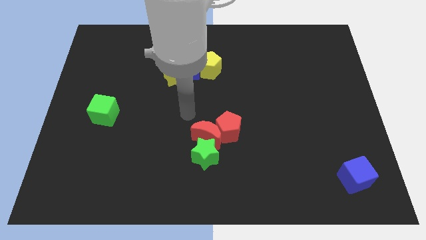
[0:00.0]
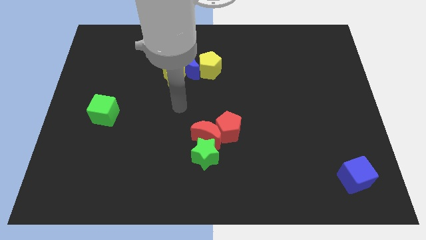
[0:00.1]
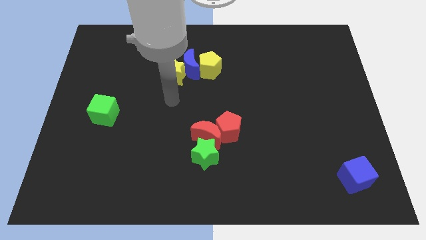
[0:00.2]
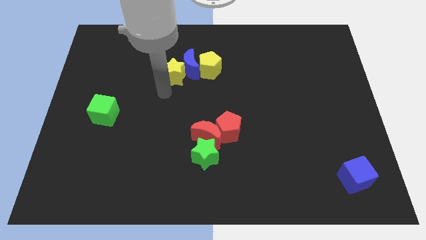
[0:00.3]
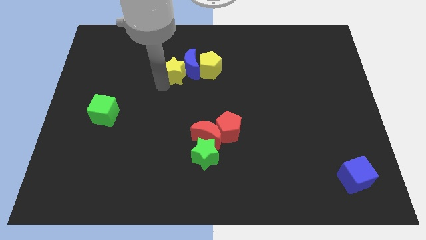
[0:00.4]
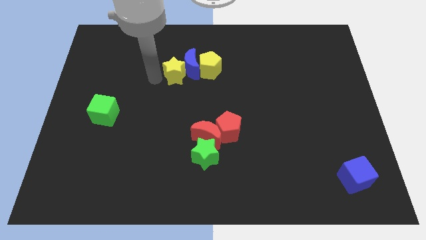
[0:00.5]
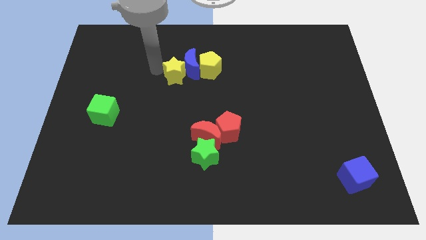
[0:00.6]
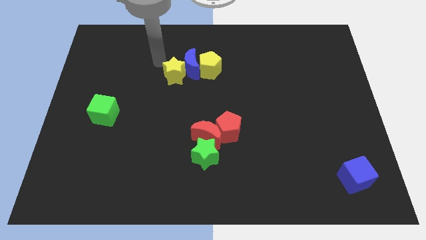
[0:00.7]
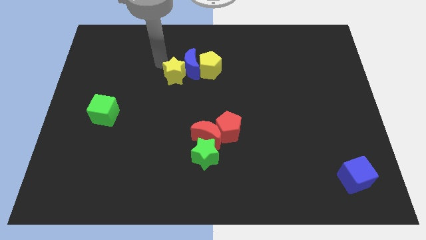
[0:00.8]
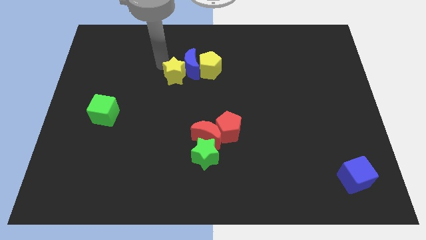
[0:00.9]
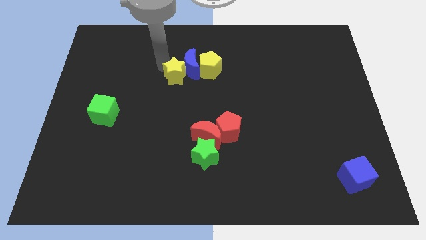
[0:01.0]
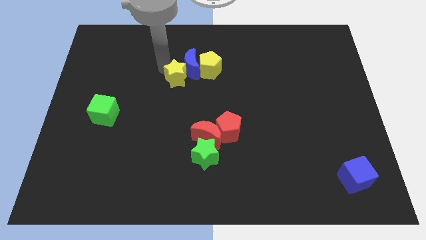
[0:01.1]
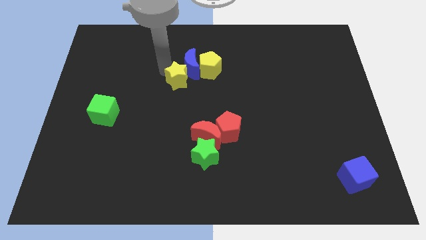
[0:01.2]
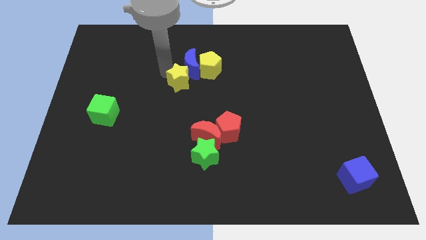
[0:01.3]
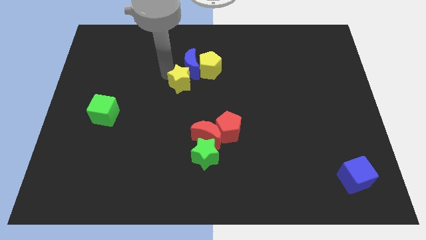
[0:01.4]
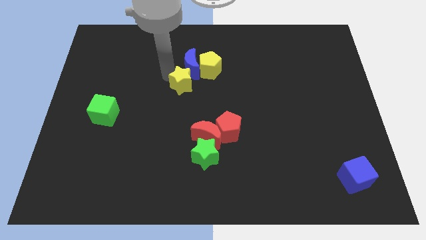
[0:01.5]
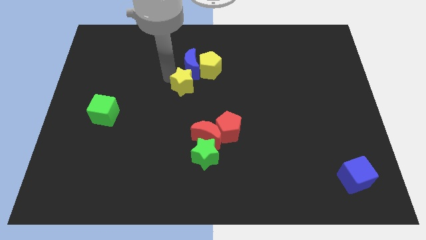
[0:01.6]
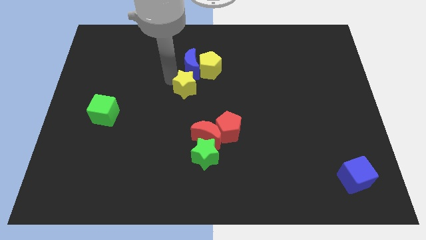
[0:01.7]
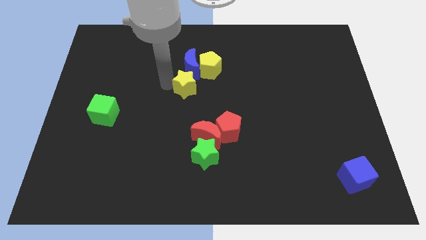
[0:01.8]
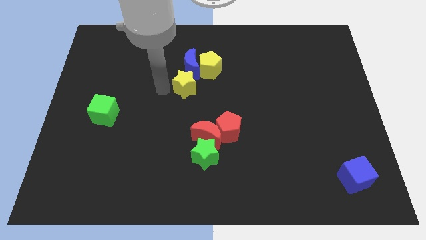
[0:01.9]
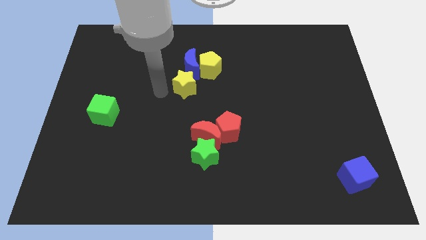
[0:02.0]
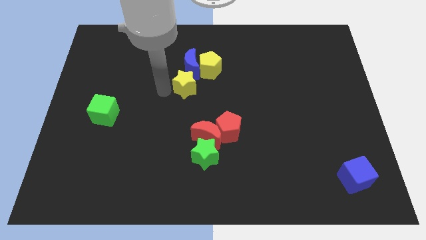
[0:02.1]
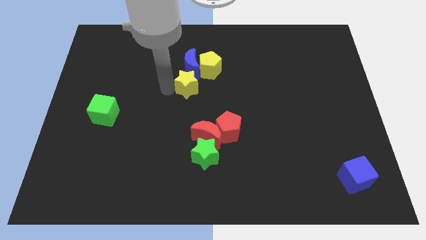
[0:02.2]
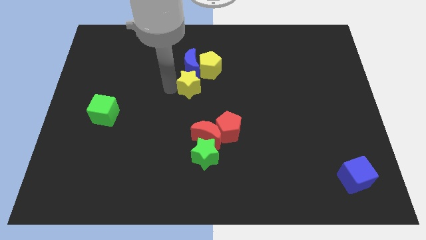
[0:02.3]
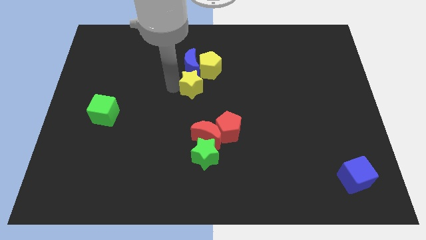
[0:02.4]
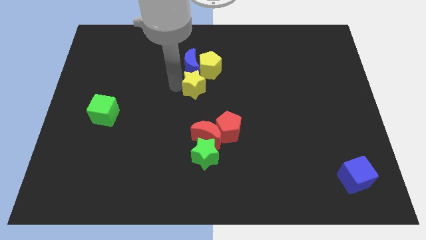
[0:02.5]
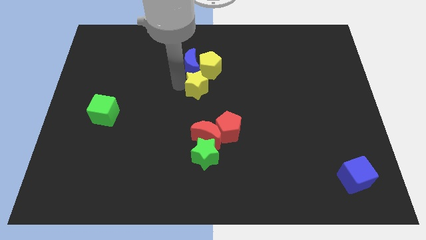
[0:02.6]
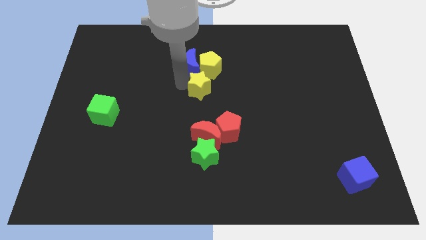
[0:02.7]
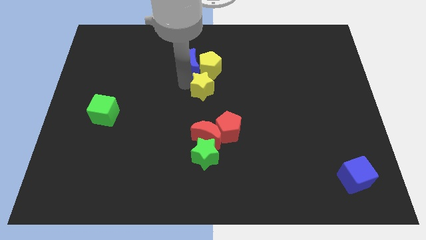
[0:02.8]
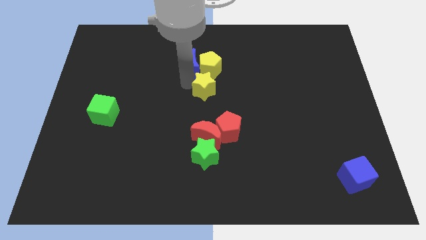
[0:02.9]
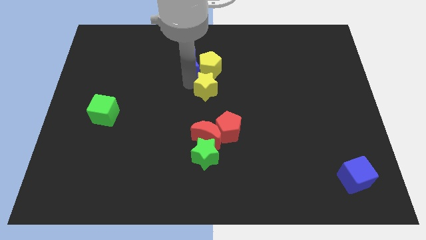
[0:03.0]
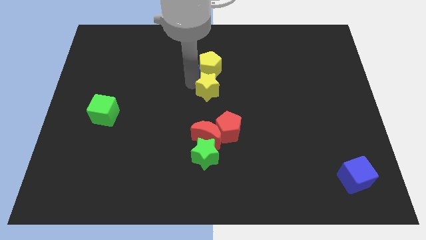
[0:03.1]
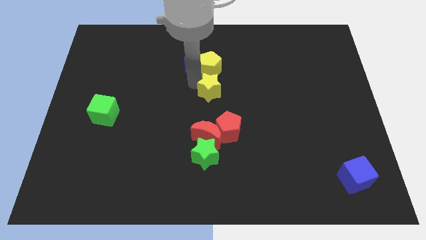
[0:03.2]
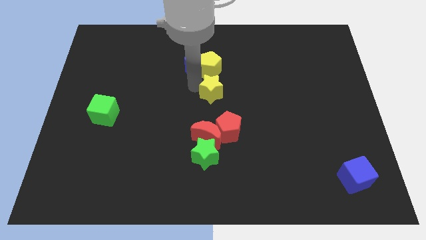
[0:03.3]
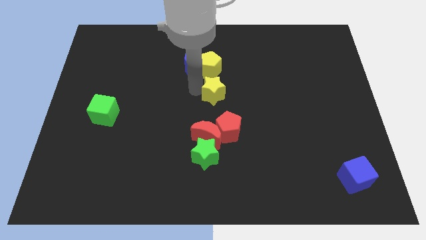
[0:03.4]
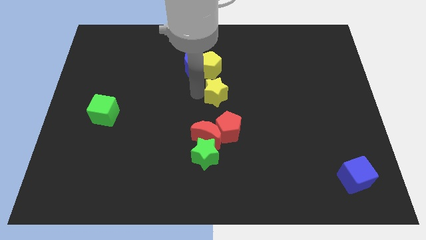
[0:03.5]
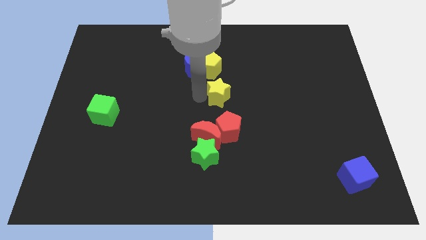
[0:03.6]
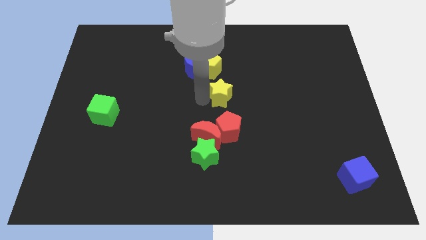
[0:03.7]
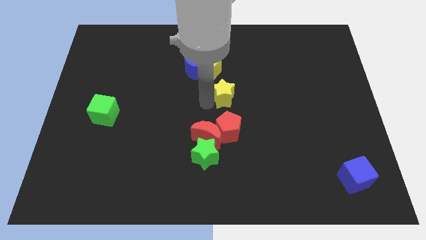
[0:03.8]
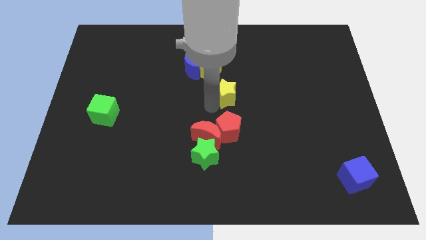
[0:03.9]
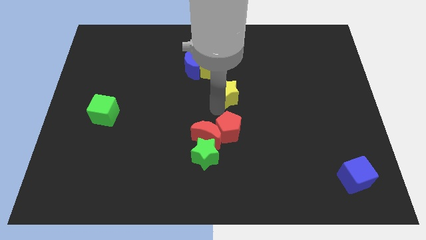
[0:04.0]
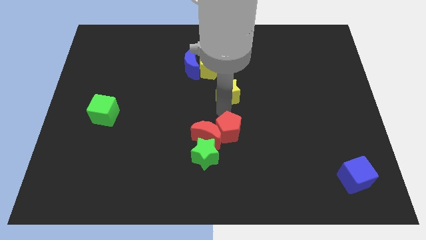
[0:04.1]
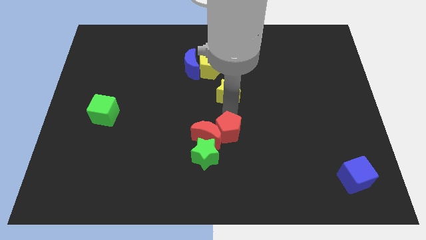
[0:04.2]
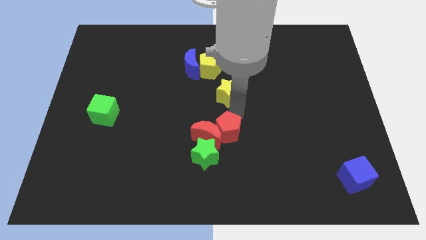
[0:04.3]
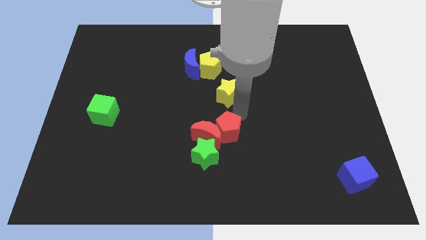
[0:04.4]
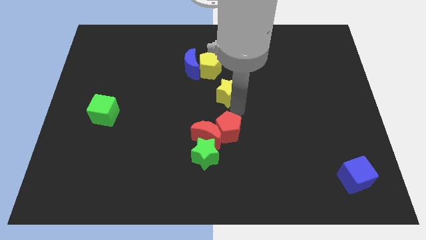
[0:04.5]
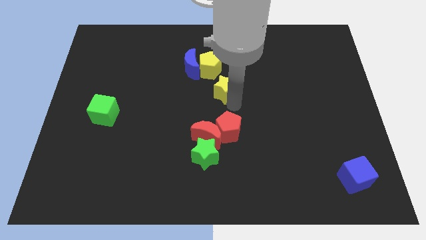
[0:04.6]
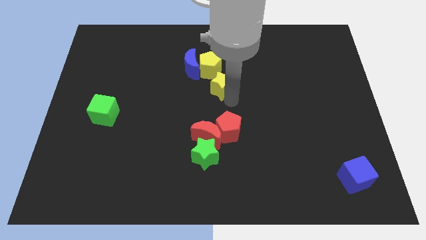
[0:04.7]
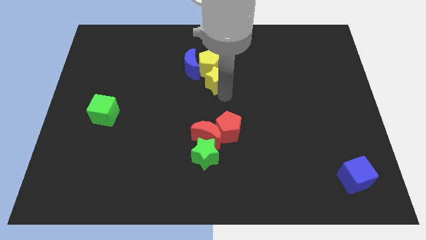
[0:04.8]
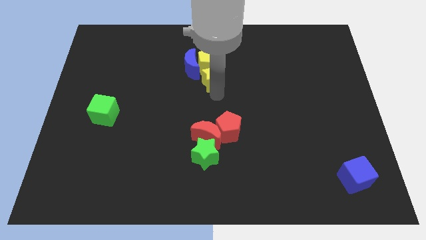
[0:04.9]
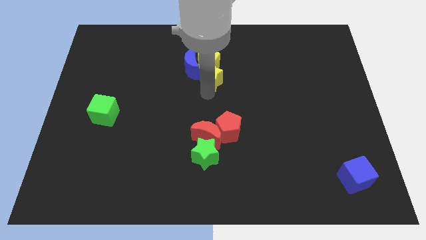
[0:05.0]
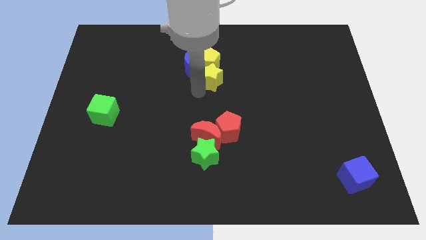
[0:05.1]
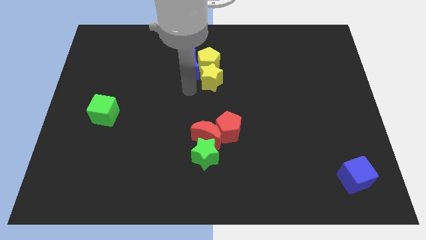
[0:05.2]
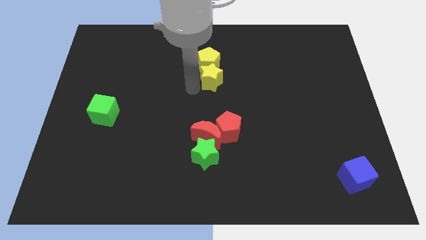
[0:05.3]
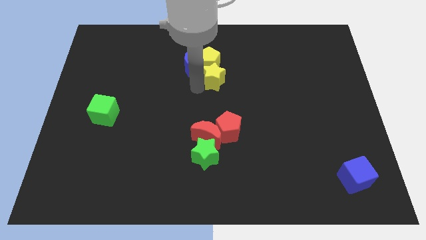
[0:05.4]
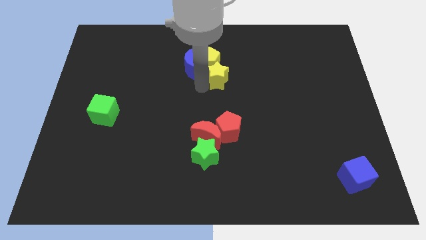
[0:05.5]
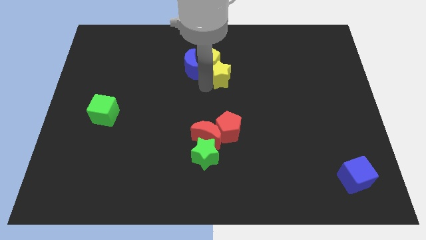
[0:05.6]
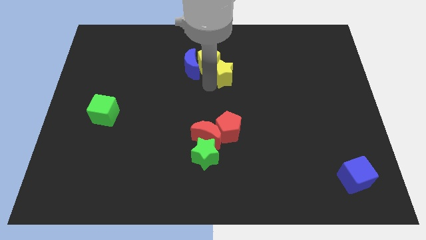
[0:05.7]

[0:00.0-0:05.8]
slide the yellow star right of the yellow pentagon

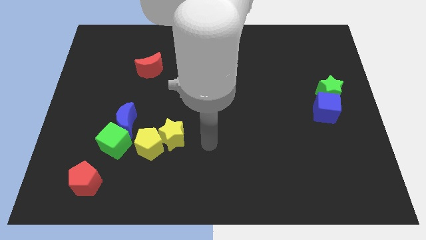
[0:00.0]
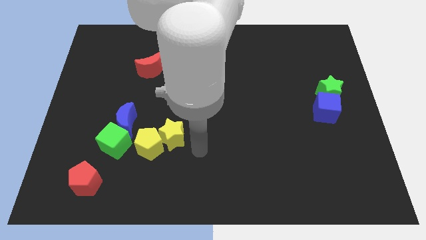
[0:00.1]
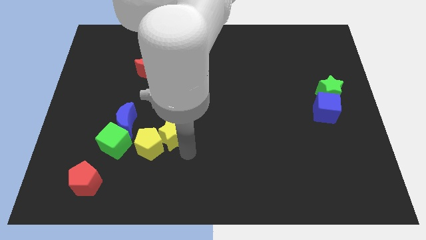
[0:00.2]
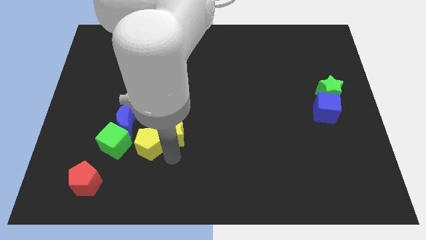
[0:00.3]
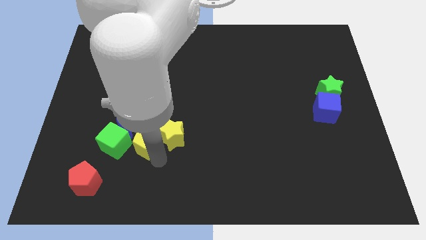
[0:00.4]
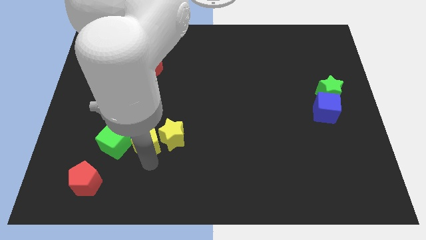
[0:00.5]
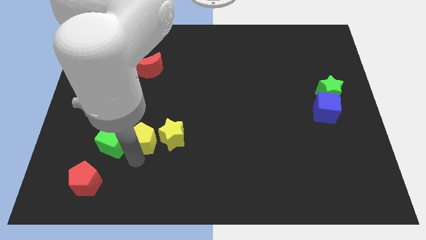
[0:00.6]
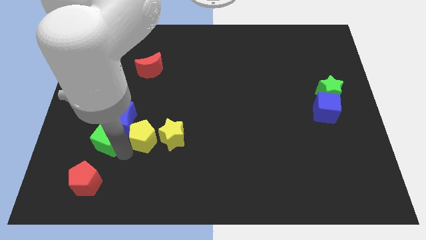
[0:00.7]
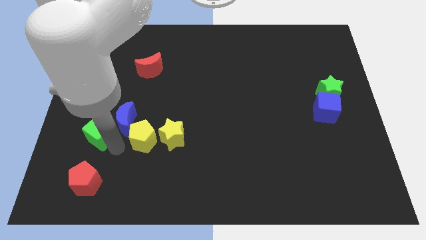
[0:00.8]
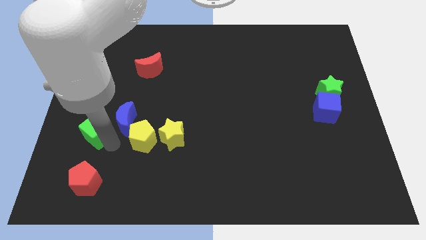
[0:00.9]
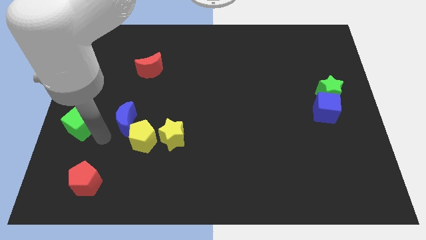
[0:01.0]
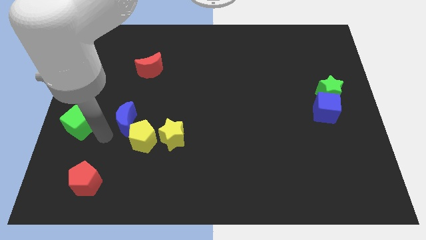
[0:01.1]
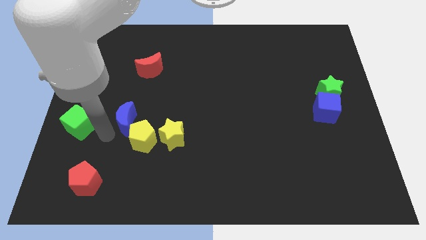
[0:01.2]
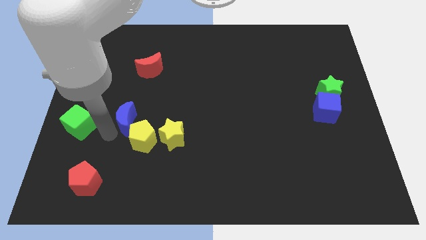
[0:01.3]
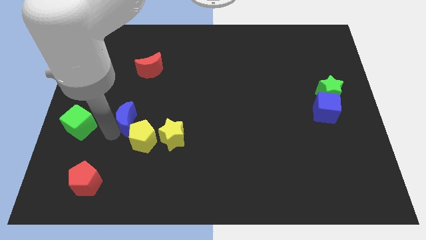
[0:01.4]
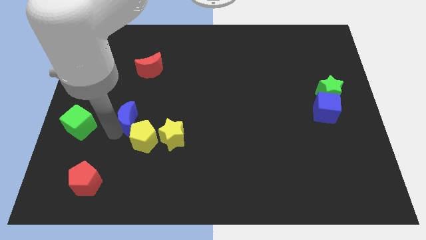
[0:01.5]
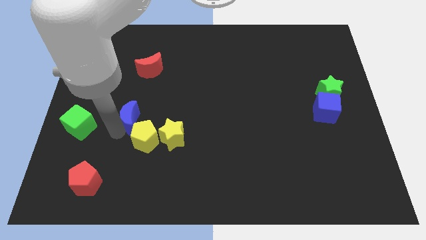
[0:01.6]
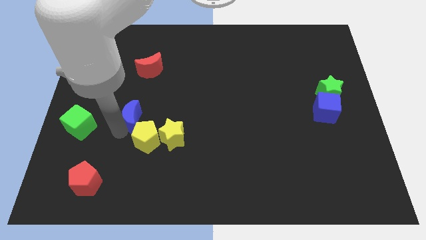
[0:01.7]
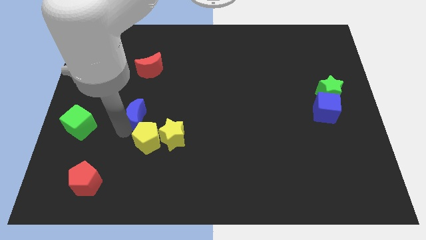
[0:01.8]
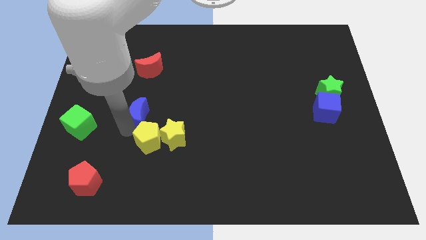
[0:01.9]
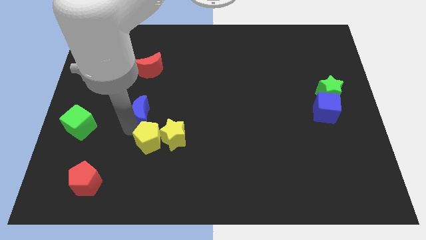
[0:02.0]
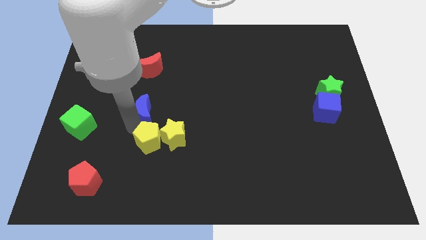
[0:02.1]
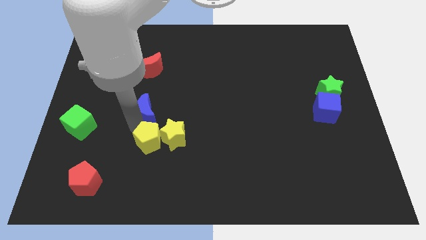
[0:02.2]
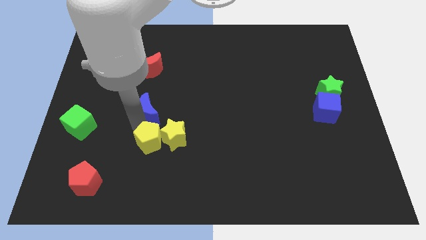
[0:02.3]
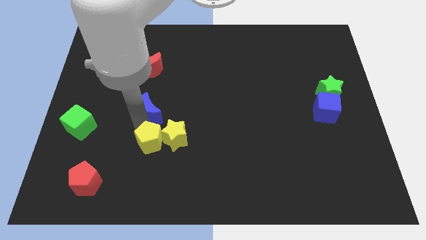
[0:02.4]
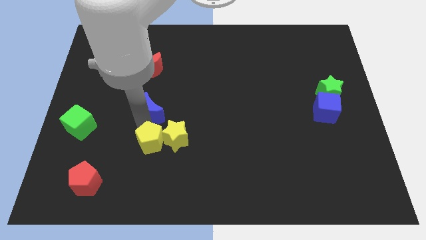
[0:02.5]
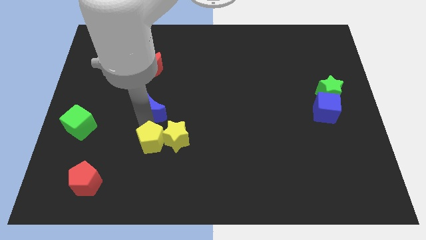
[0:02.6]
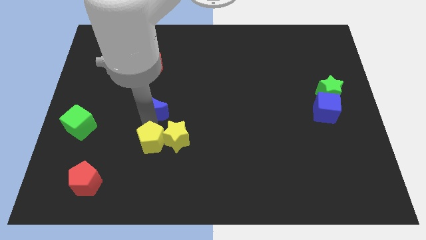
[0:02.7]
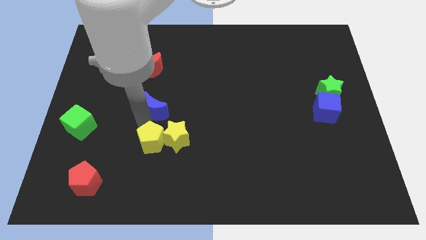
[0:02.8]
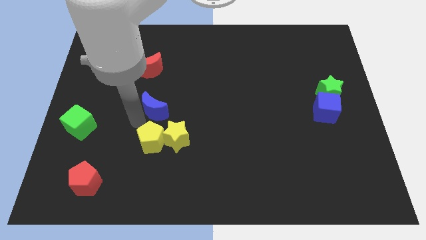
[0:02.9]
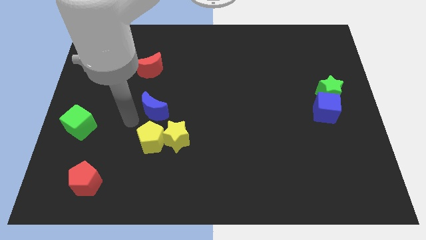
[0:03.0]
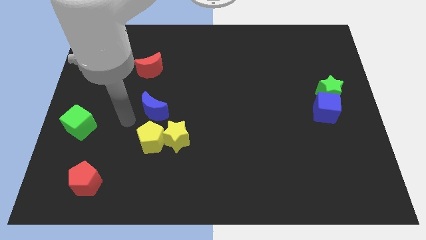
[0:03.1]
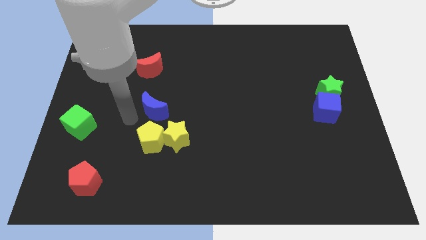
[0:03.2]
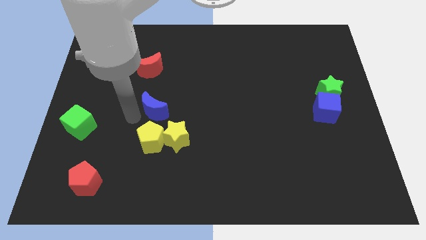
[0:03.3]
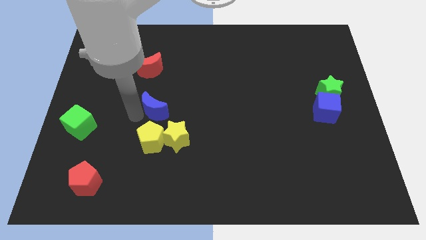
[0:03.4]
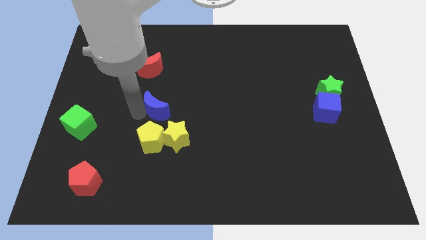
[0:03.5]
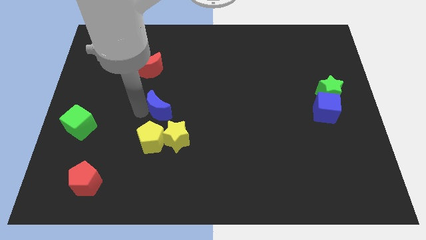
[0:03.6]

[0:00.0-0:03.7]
move the blue moon above the yellow star
